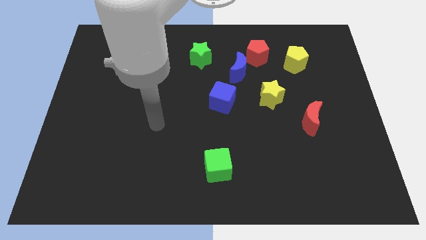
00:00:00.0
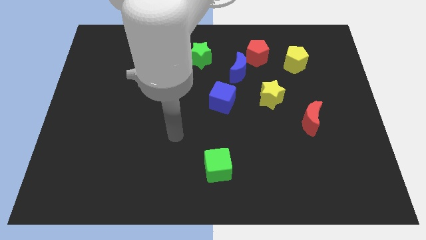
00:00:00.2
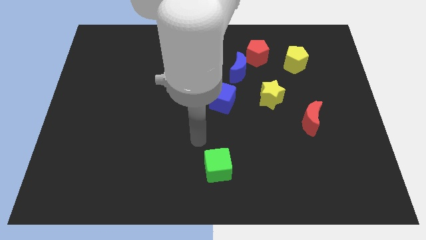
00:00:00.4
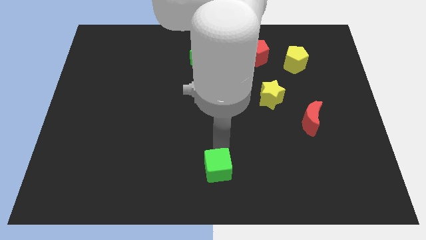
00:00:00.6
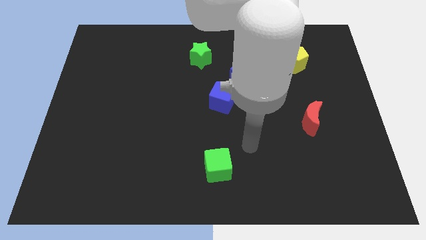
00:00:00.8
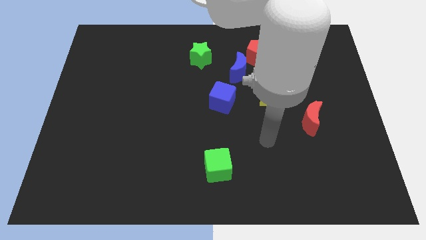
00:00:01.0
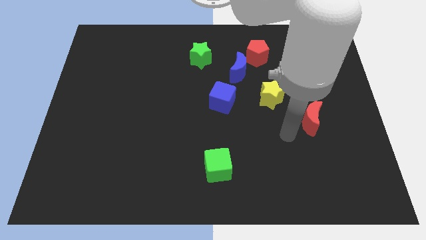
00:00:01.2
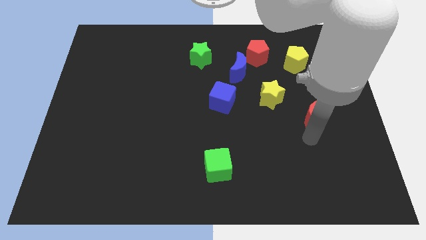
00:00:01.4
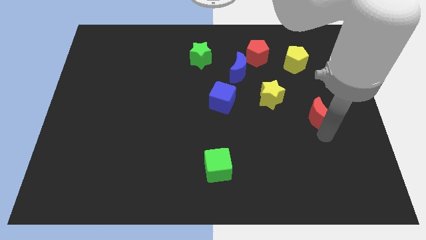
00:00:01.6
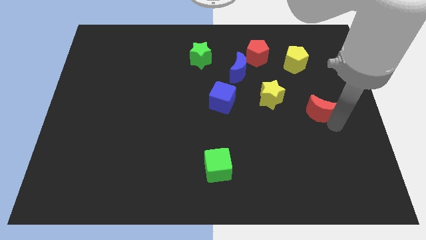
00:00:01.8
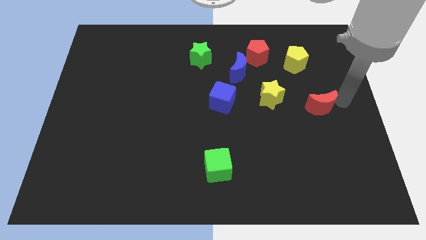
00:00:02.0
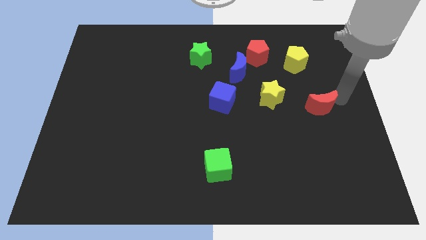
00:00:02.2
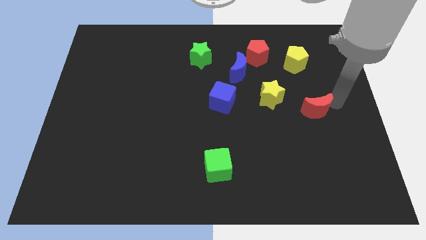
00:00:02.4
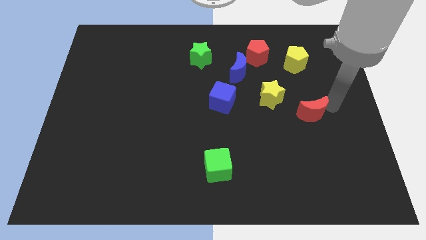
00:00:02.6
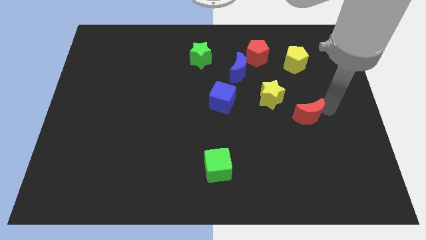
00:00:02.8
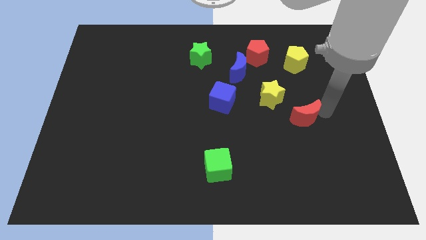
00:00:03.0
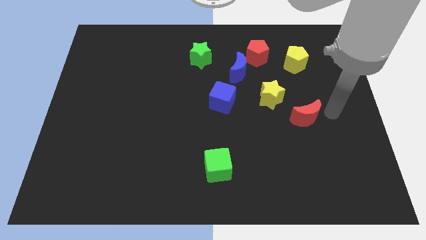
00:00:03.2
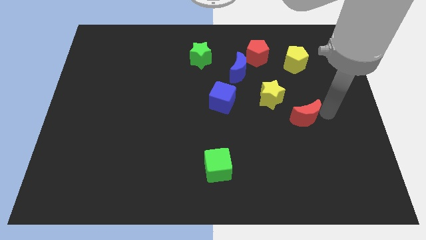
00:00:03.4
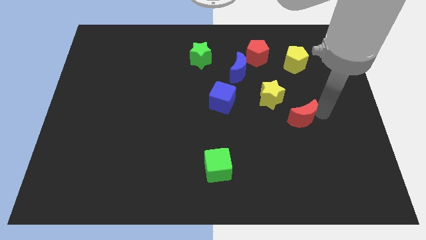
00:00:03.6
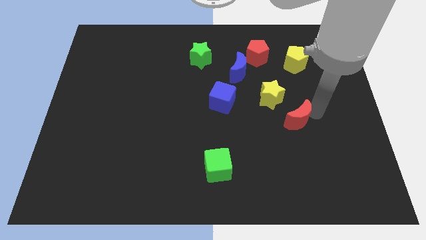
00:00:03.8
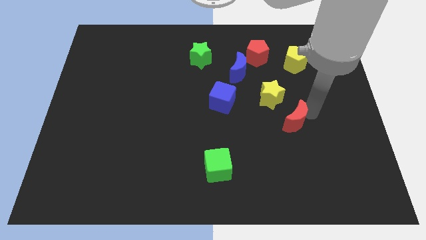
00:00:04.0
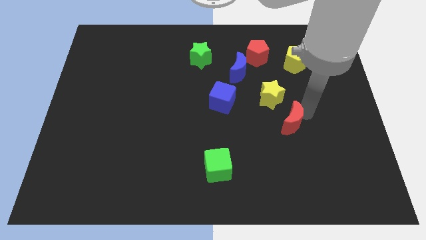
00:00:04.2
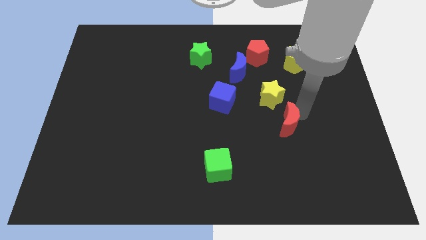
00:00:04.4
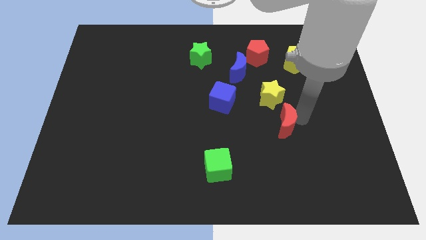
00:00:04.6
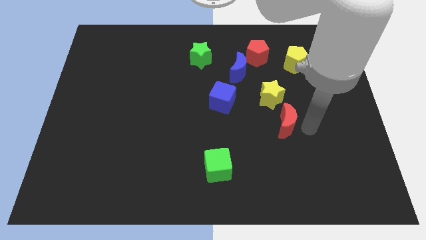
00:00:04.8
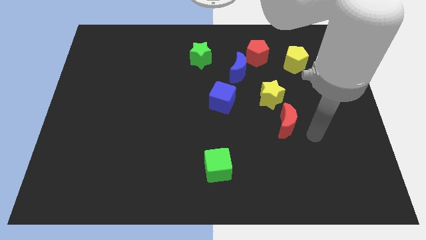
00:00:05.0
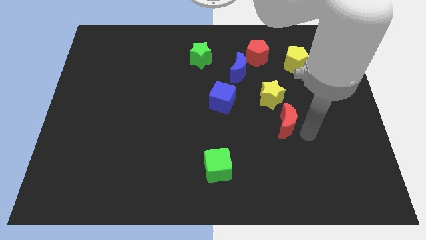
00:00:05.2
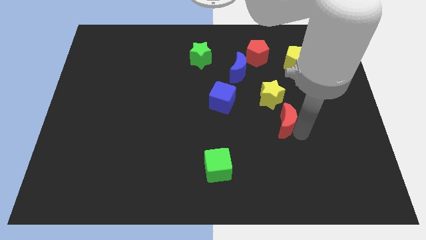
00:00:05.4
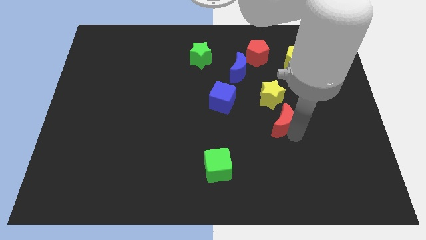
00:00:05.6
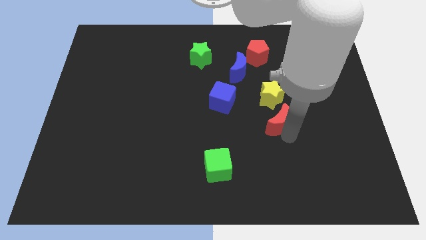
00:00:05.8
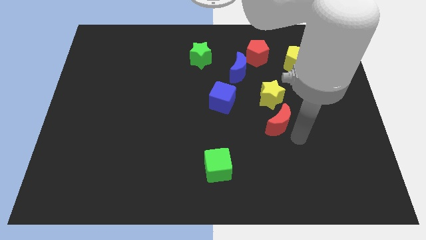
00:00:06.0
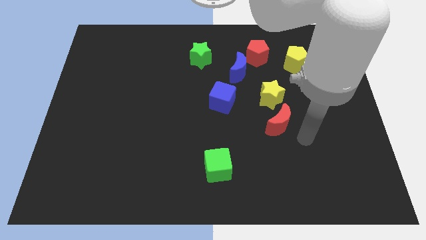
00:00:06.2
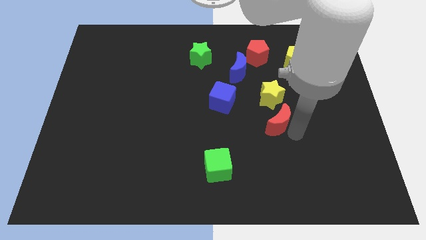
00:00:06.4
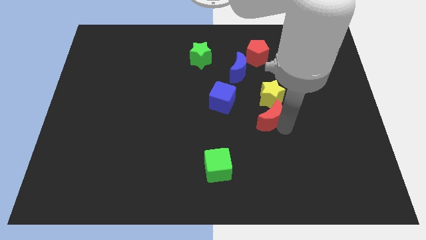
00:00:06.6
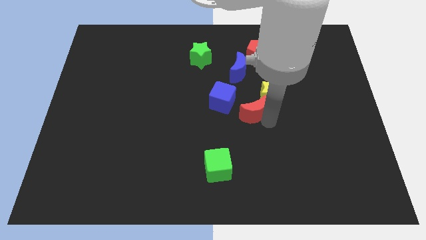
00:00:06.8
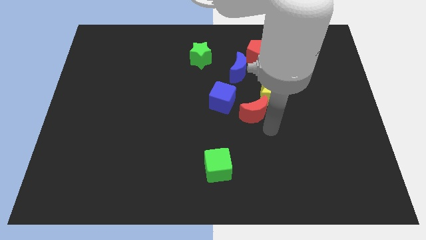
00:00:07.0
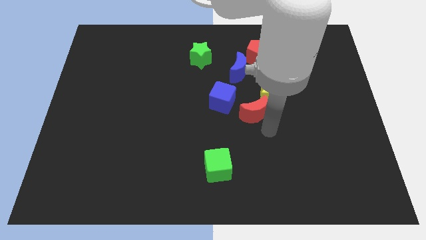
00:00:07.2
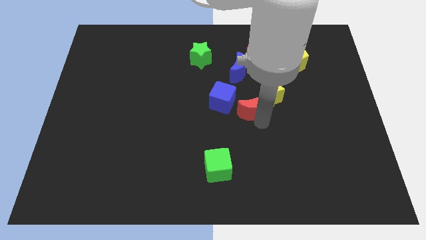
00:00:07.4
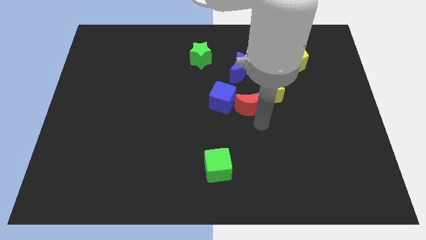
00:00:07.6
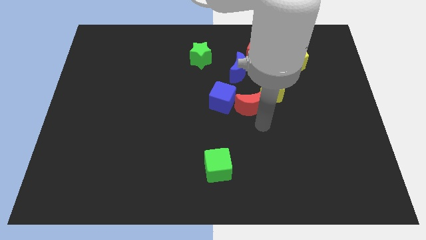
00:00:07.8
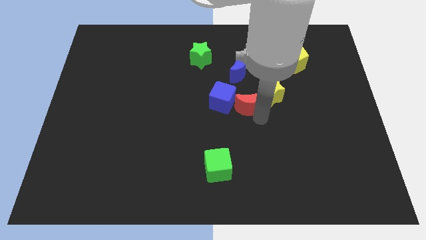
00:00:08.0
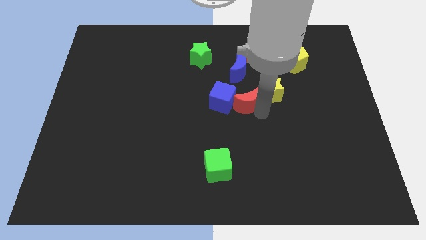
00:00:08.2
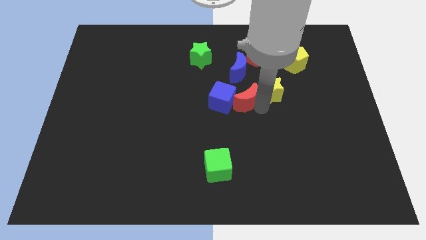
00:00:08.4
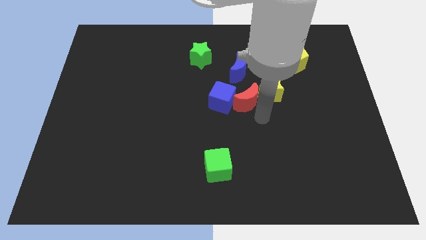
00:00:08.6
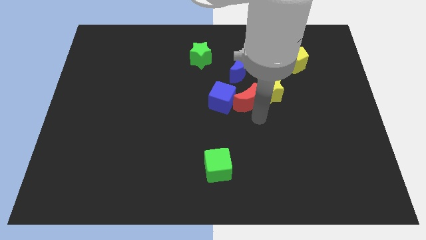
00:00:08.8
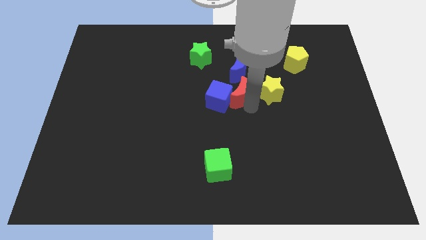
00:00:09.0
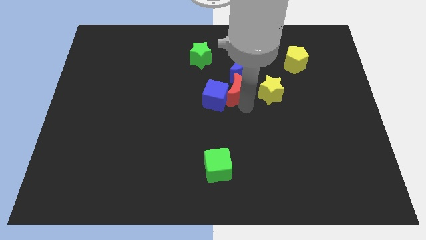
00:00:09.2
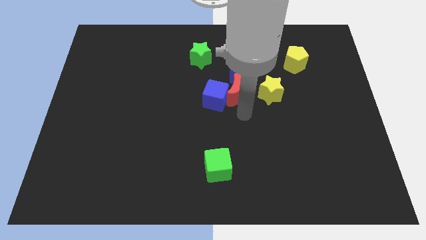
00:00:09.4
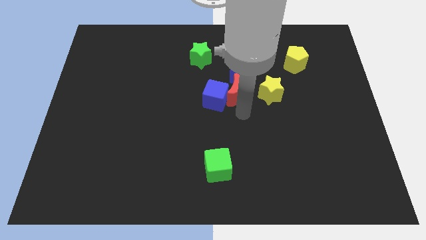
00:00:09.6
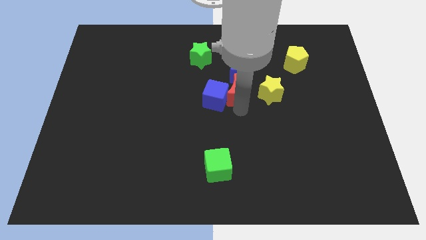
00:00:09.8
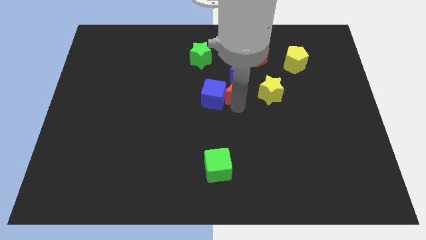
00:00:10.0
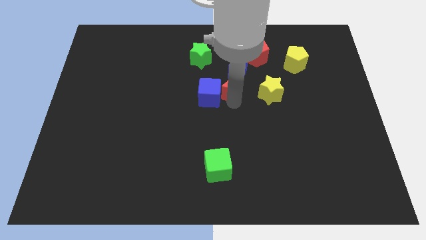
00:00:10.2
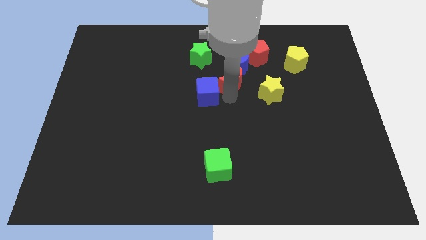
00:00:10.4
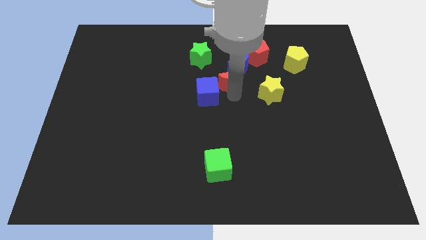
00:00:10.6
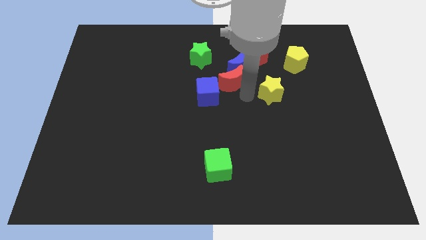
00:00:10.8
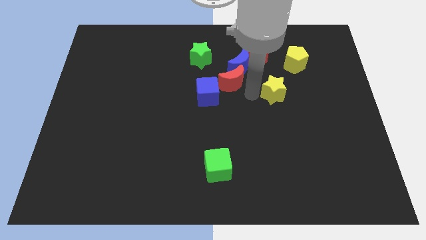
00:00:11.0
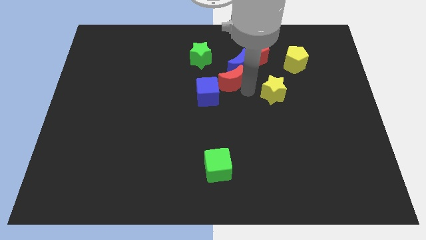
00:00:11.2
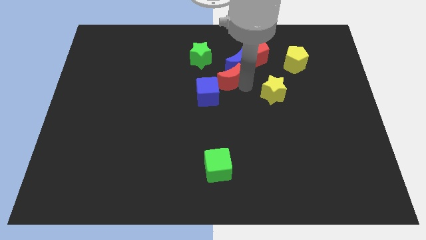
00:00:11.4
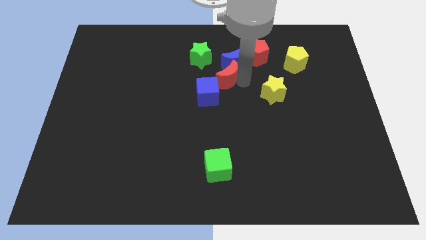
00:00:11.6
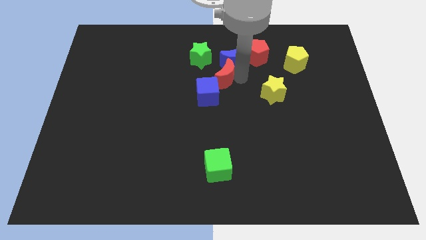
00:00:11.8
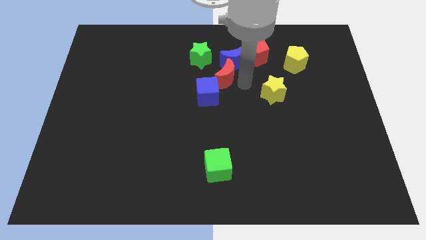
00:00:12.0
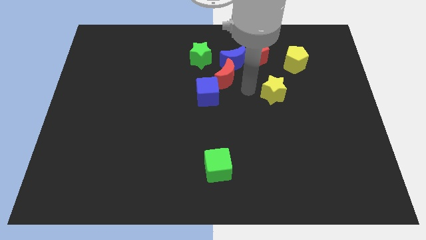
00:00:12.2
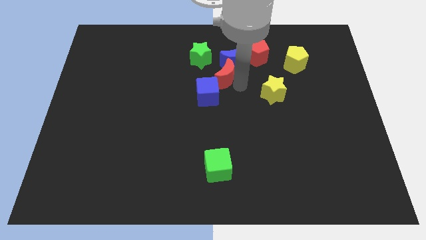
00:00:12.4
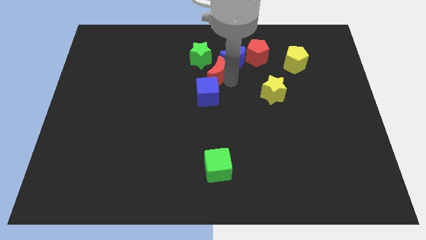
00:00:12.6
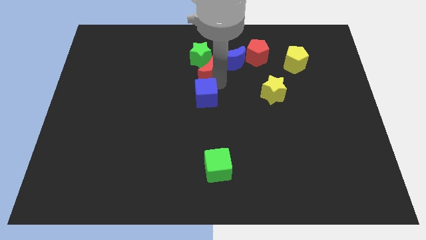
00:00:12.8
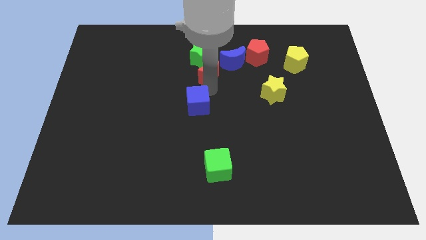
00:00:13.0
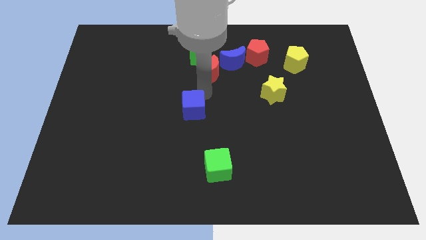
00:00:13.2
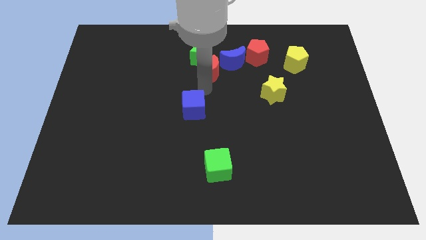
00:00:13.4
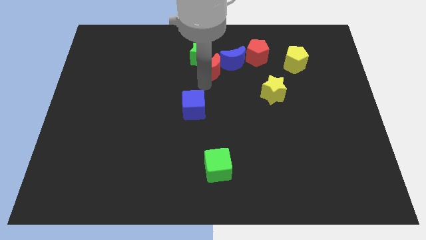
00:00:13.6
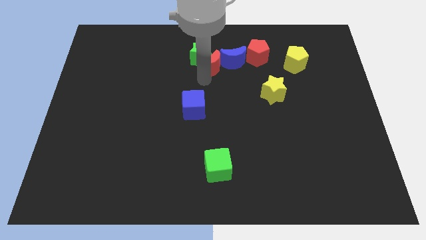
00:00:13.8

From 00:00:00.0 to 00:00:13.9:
move the red moon left of the red pentagon

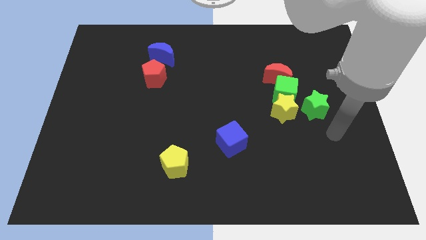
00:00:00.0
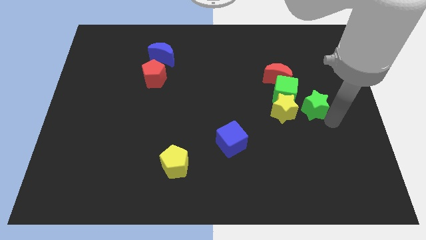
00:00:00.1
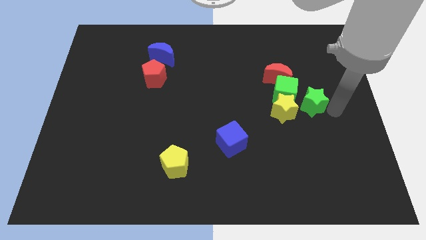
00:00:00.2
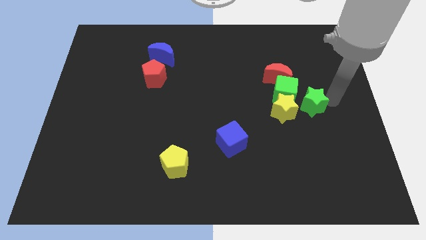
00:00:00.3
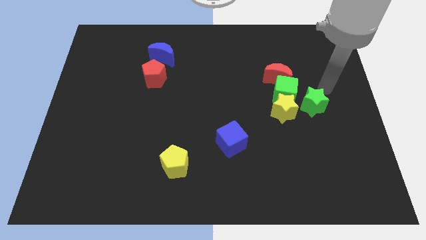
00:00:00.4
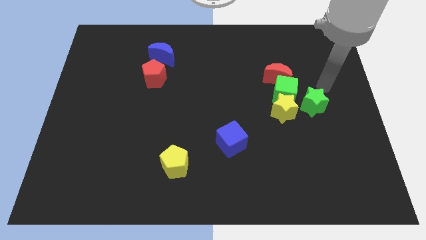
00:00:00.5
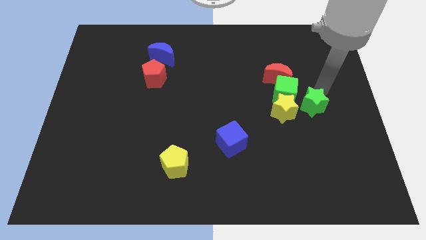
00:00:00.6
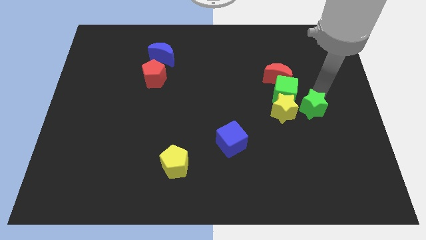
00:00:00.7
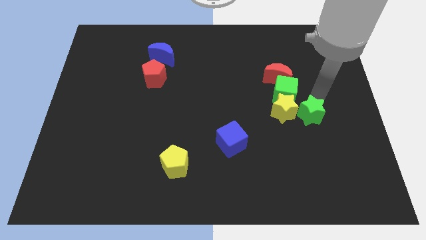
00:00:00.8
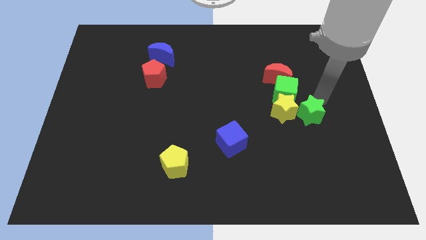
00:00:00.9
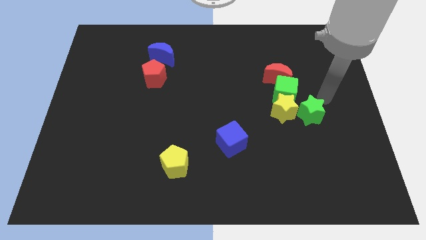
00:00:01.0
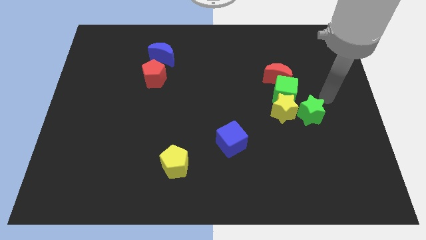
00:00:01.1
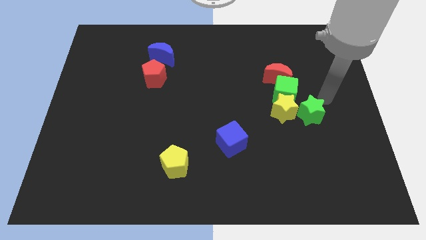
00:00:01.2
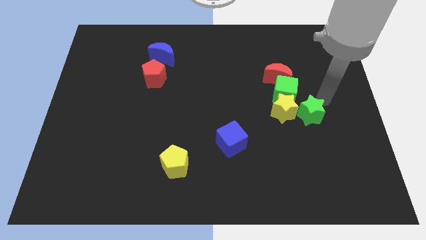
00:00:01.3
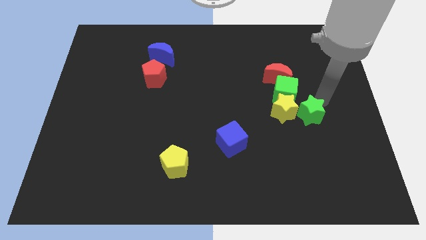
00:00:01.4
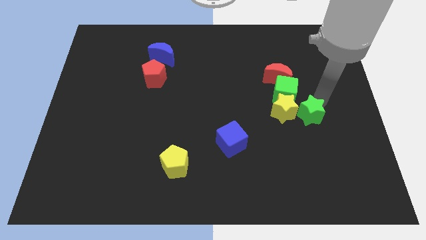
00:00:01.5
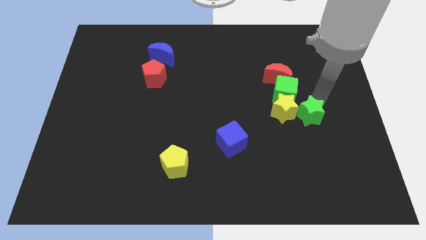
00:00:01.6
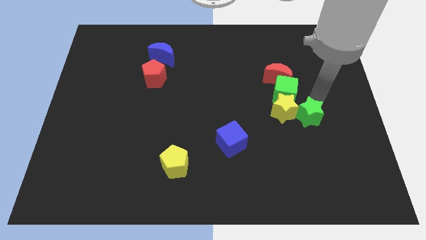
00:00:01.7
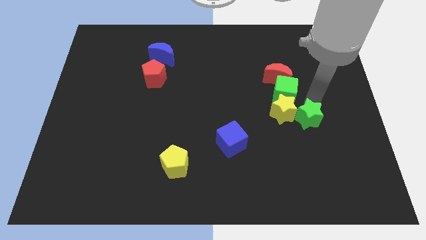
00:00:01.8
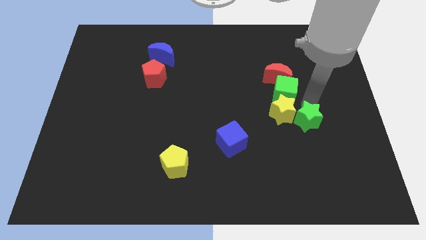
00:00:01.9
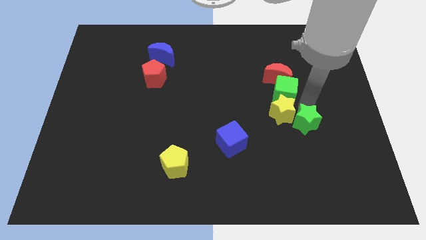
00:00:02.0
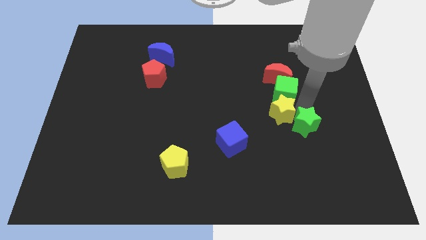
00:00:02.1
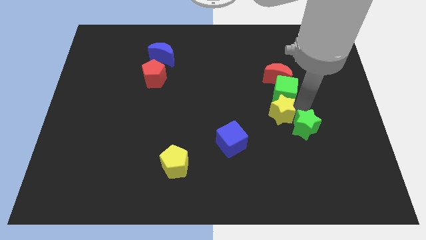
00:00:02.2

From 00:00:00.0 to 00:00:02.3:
slide the green star to the bottom of the yellow star
